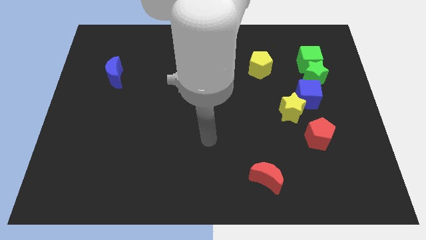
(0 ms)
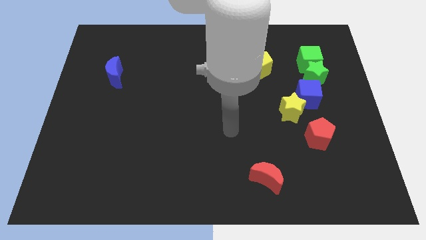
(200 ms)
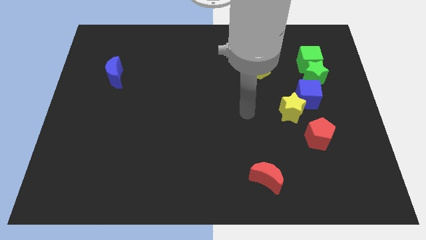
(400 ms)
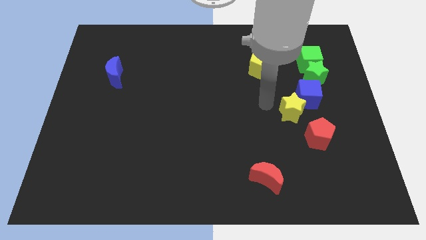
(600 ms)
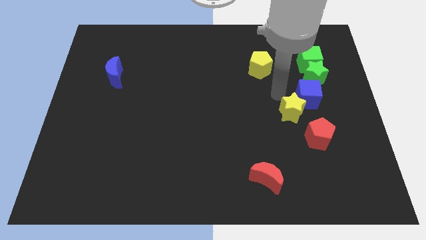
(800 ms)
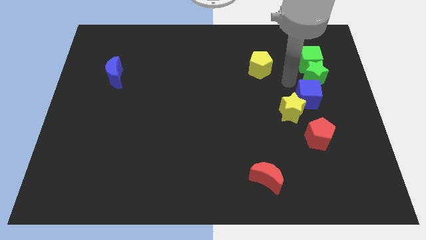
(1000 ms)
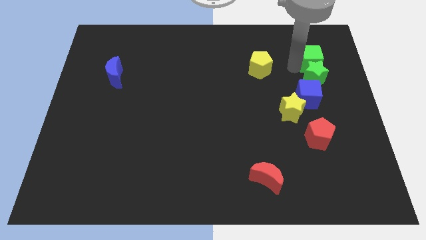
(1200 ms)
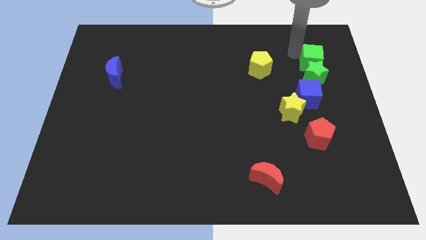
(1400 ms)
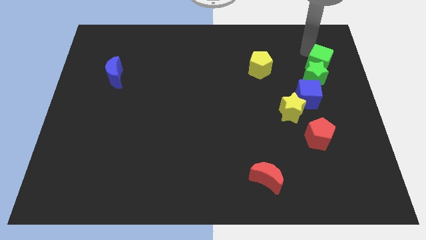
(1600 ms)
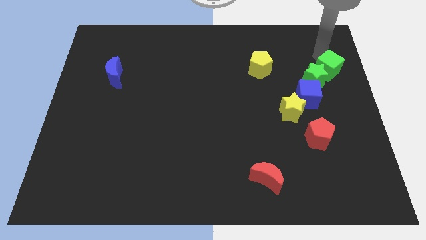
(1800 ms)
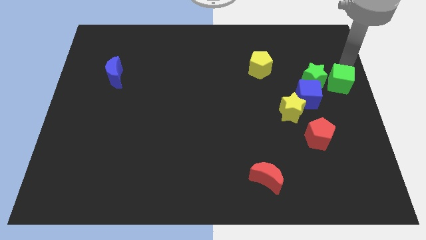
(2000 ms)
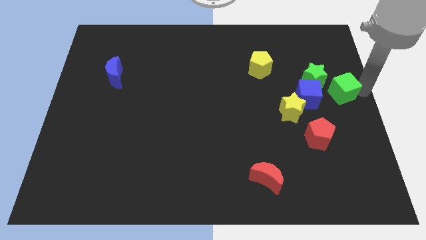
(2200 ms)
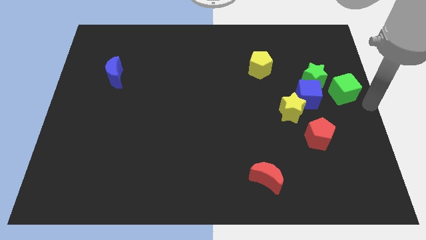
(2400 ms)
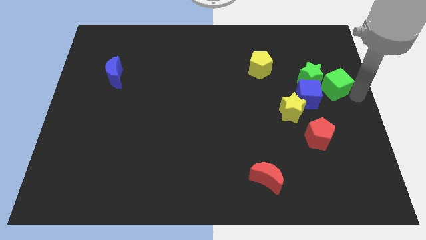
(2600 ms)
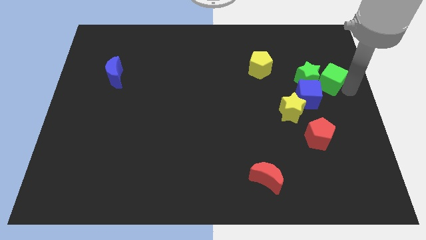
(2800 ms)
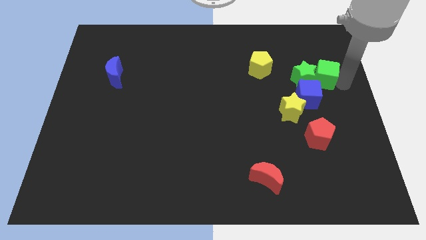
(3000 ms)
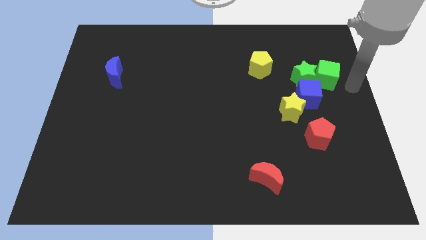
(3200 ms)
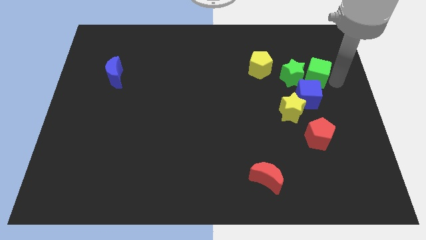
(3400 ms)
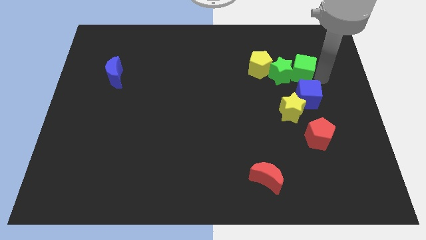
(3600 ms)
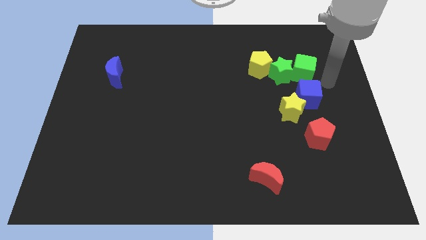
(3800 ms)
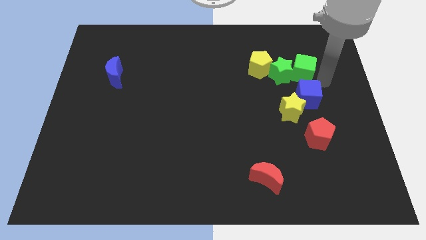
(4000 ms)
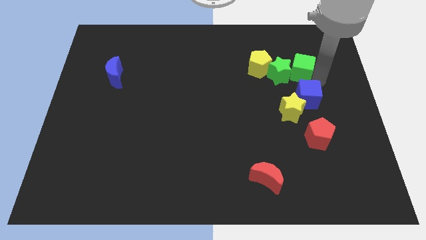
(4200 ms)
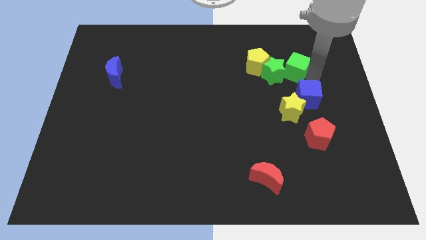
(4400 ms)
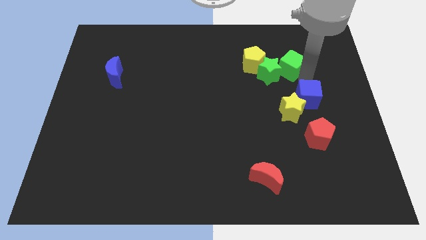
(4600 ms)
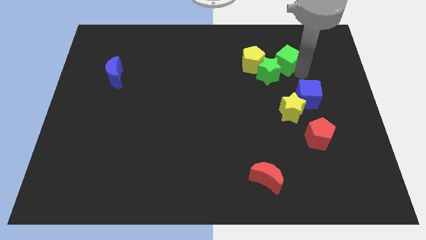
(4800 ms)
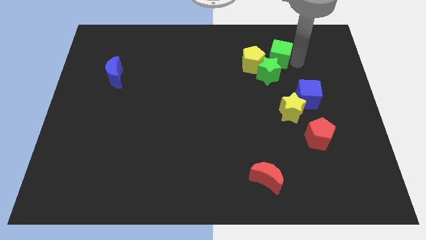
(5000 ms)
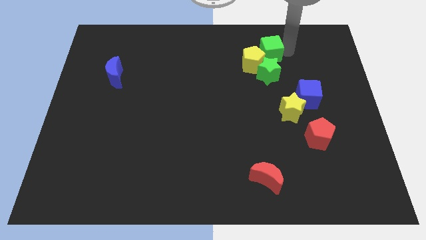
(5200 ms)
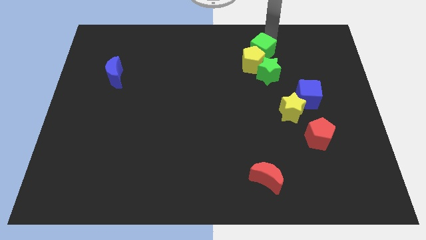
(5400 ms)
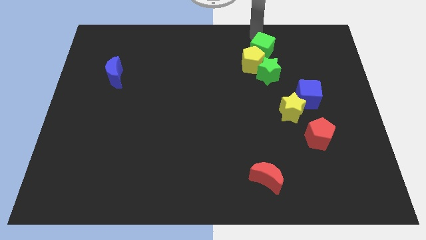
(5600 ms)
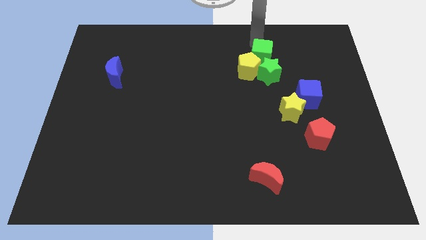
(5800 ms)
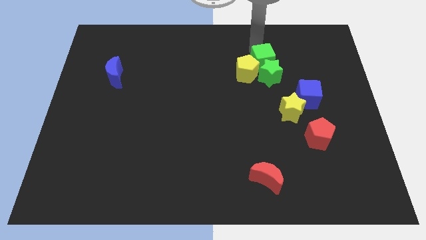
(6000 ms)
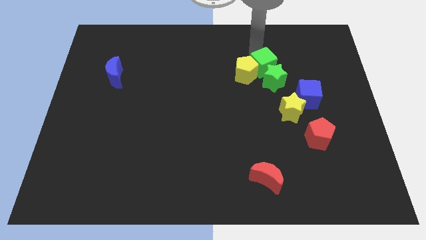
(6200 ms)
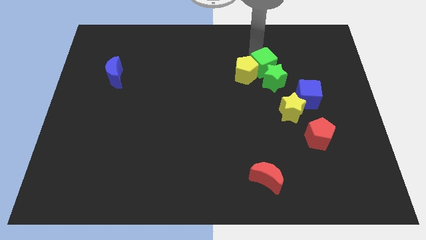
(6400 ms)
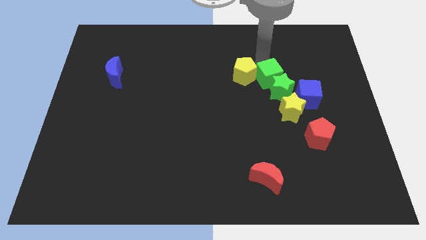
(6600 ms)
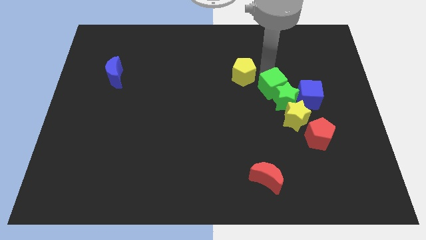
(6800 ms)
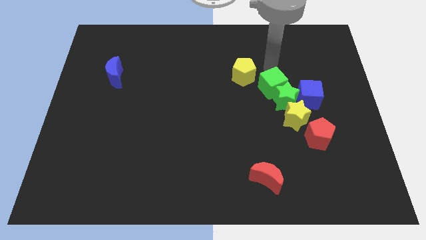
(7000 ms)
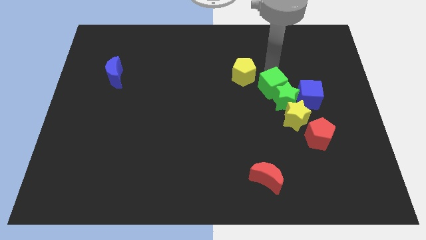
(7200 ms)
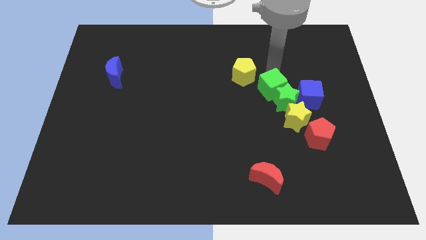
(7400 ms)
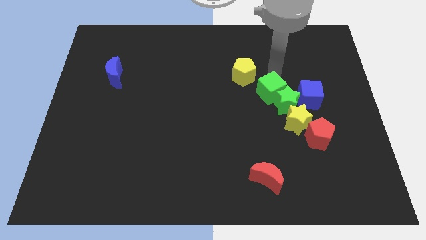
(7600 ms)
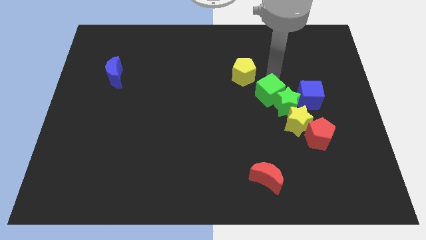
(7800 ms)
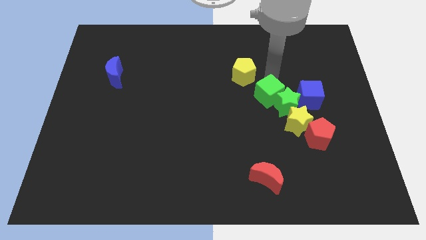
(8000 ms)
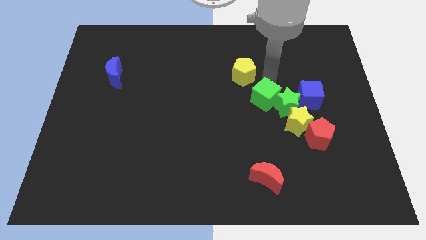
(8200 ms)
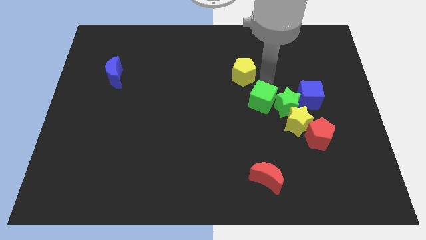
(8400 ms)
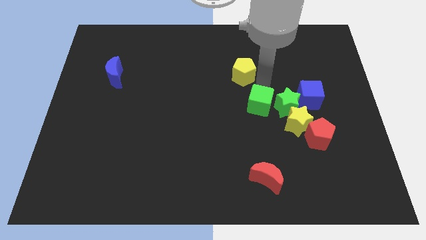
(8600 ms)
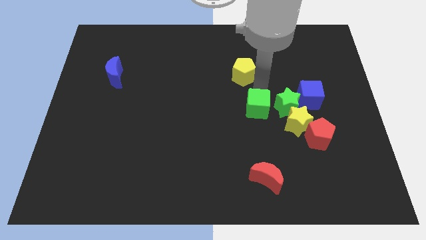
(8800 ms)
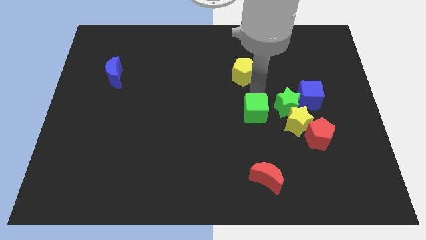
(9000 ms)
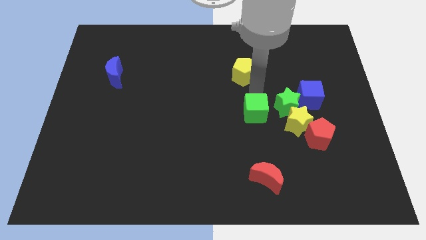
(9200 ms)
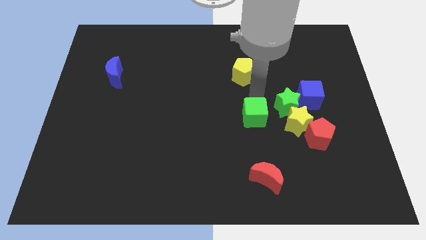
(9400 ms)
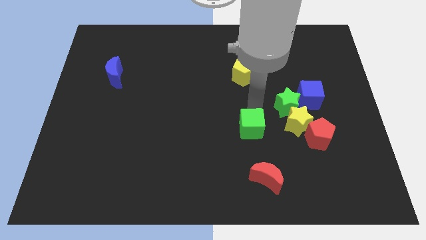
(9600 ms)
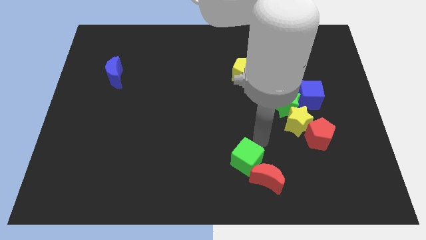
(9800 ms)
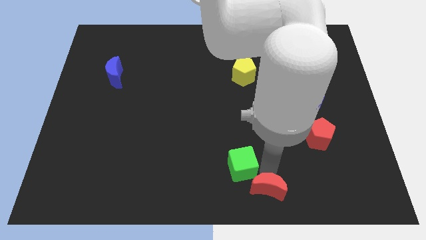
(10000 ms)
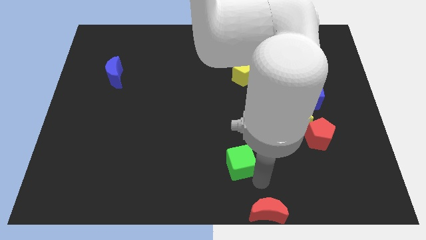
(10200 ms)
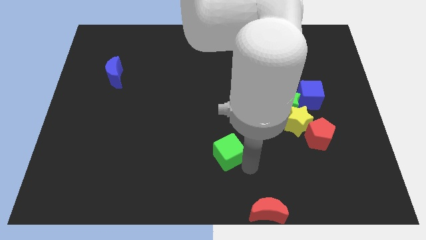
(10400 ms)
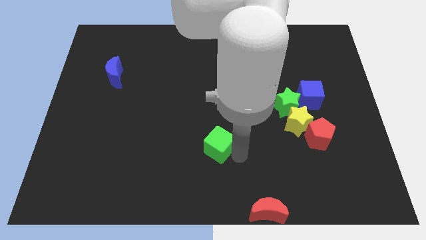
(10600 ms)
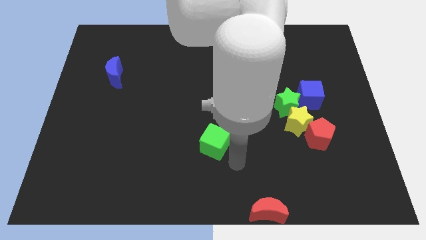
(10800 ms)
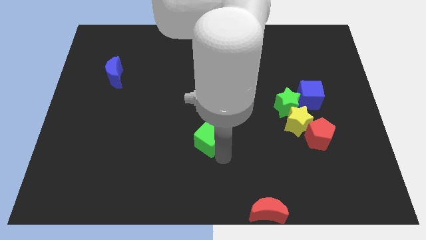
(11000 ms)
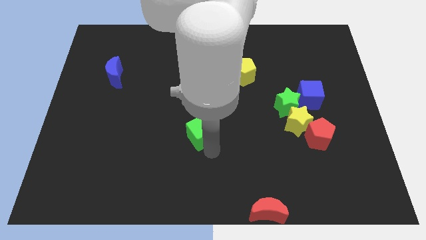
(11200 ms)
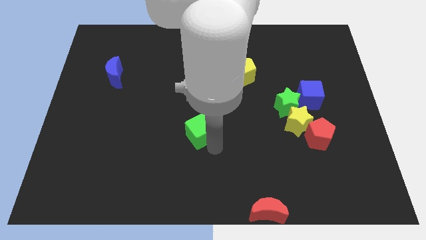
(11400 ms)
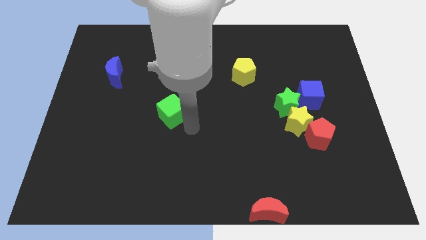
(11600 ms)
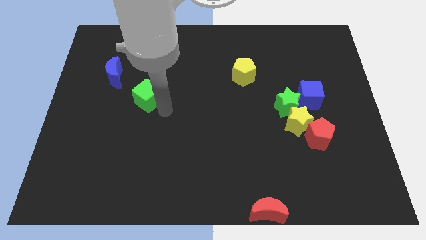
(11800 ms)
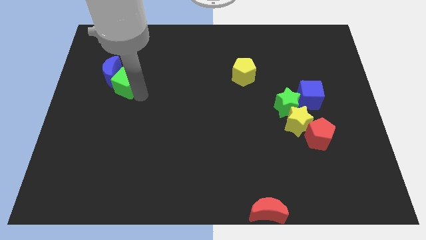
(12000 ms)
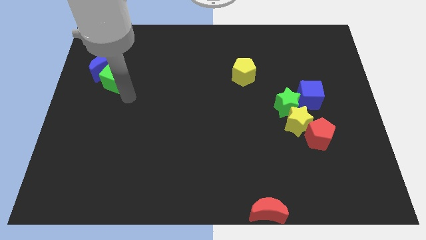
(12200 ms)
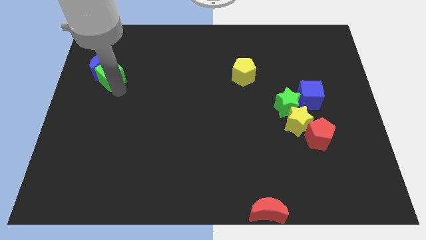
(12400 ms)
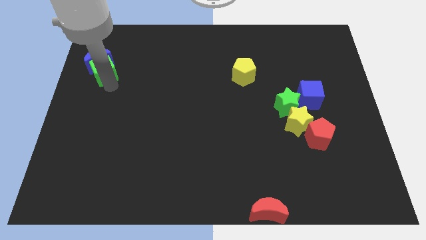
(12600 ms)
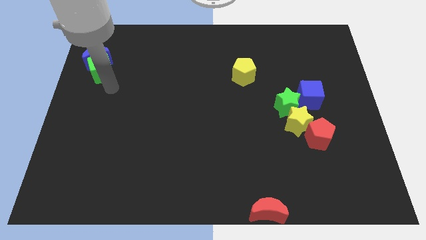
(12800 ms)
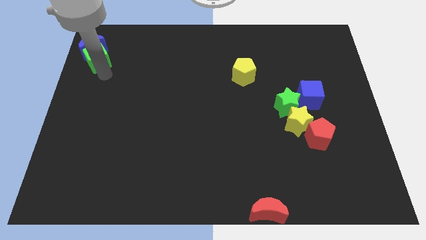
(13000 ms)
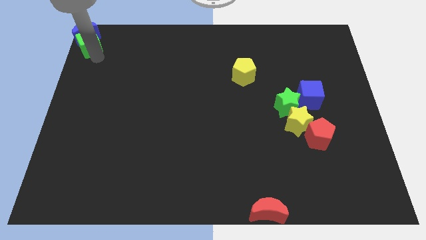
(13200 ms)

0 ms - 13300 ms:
move the green cube to the top left
